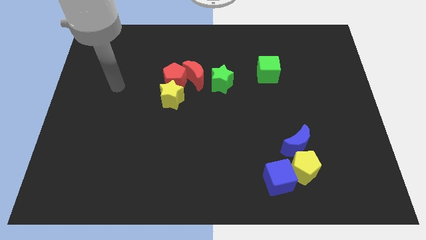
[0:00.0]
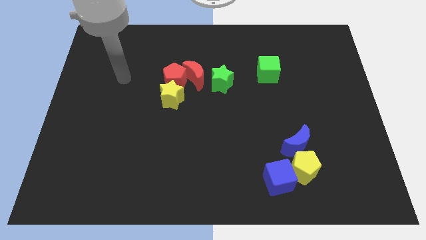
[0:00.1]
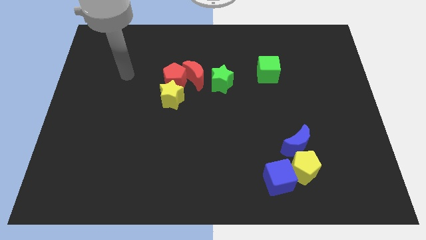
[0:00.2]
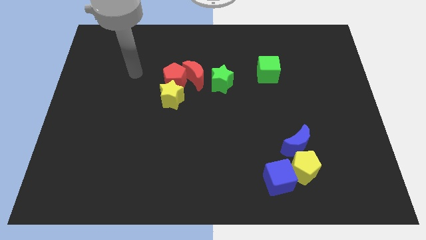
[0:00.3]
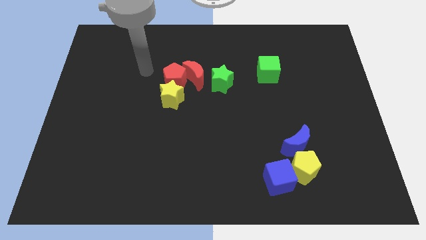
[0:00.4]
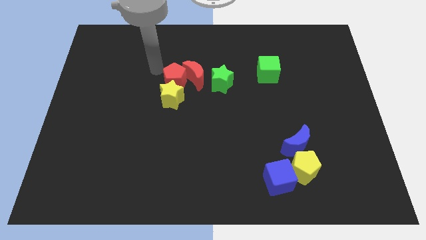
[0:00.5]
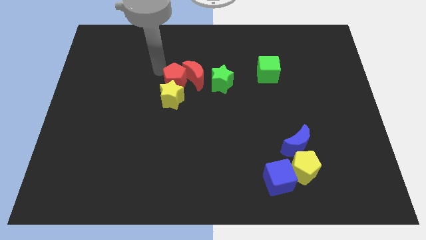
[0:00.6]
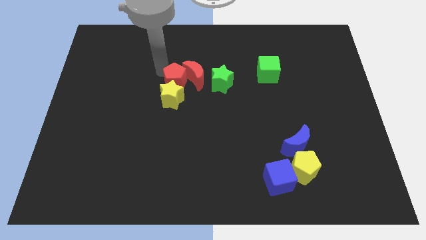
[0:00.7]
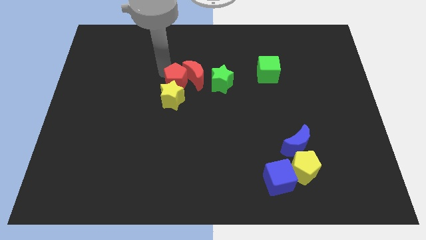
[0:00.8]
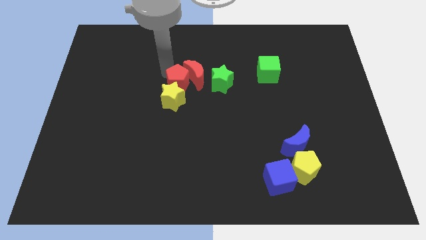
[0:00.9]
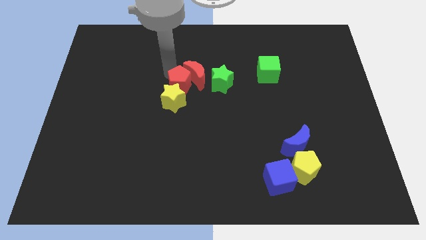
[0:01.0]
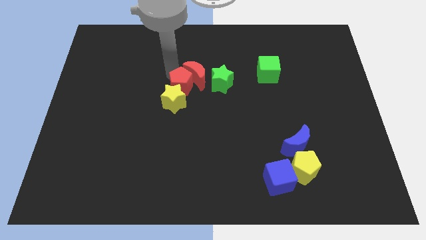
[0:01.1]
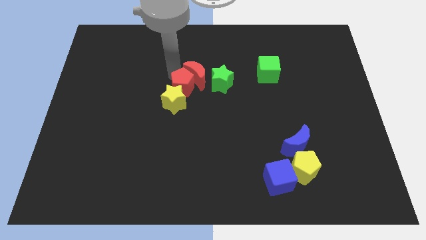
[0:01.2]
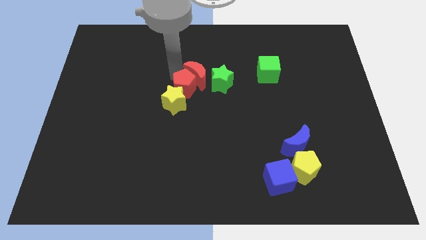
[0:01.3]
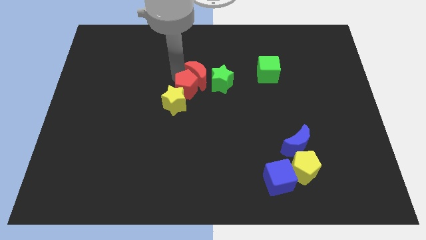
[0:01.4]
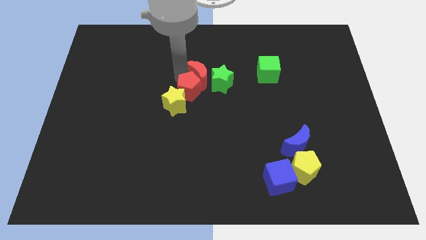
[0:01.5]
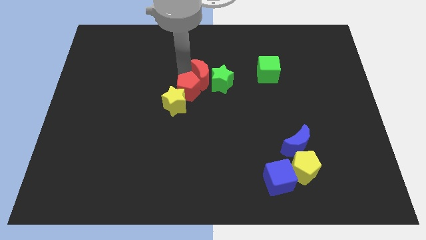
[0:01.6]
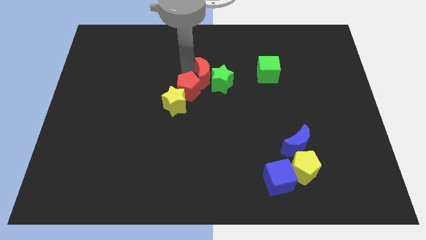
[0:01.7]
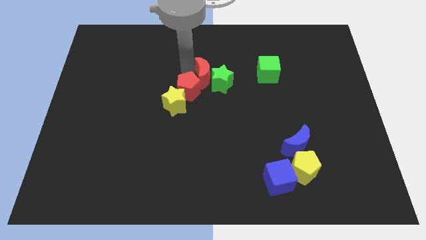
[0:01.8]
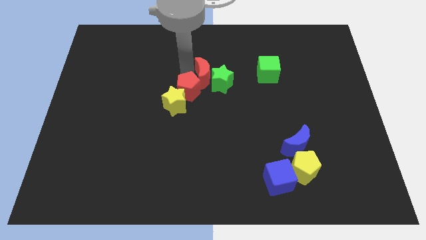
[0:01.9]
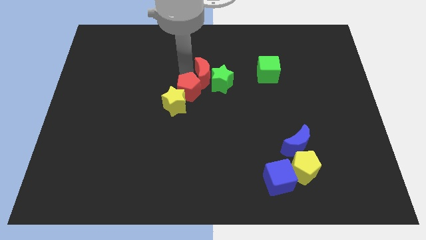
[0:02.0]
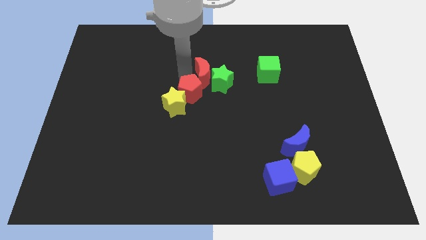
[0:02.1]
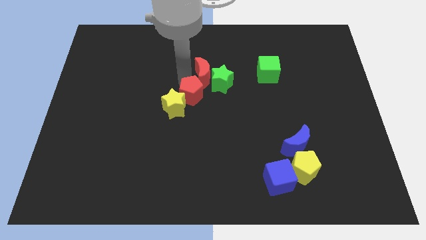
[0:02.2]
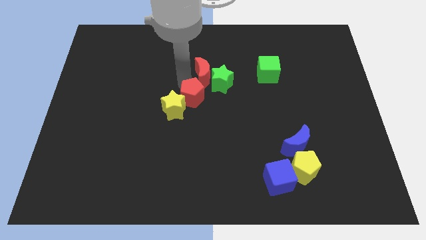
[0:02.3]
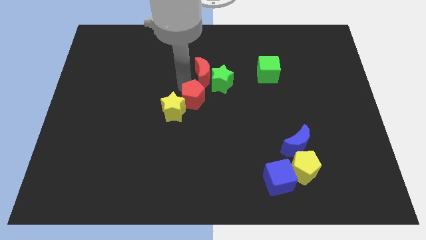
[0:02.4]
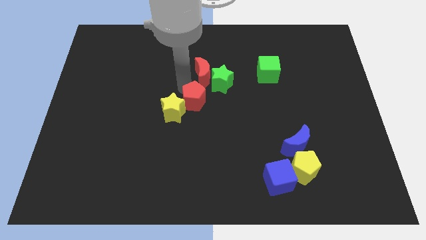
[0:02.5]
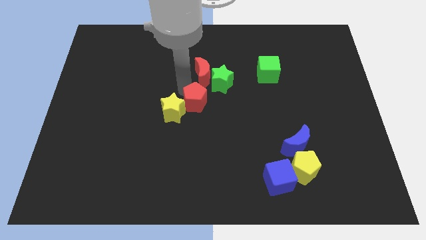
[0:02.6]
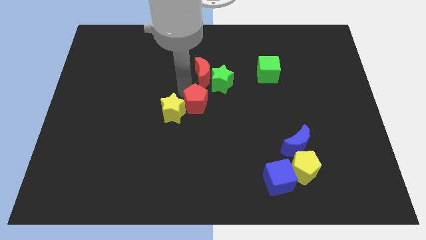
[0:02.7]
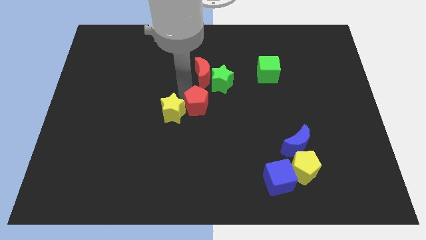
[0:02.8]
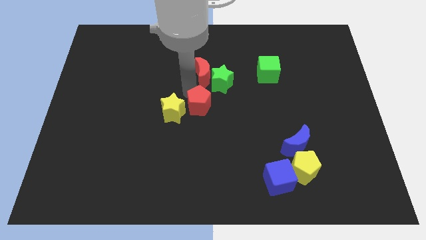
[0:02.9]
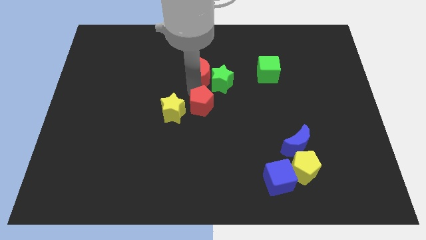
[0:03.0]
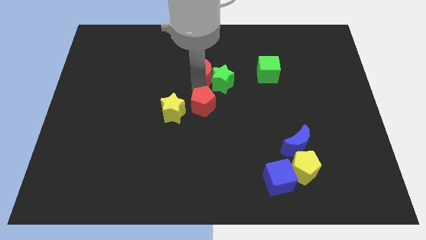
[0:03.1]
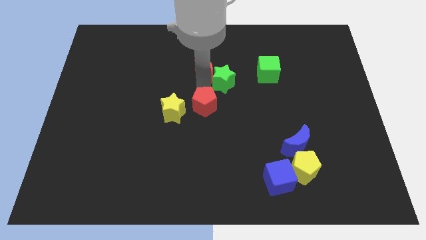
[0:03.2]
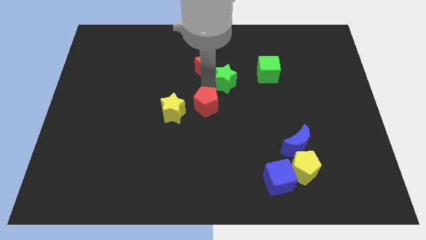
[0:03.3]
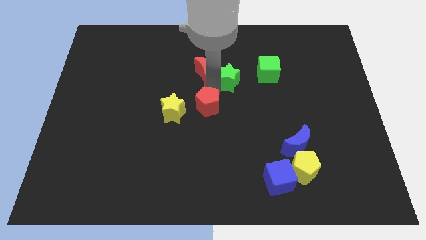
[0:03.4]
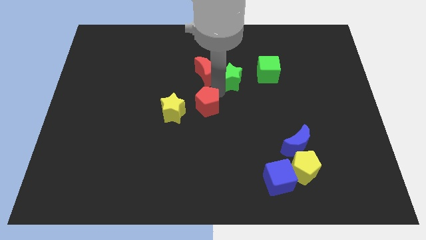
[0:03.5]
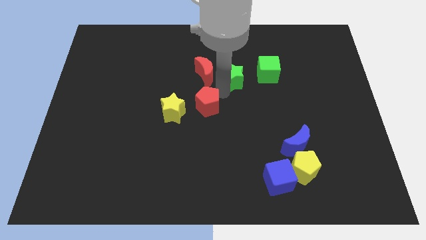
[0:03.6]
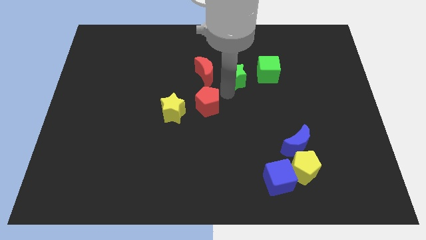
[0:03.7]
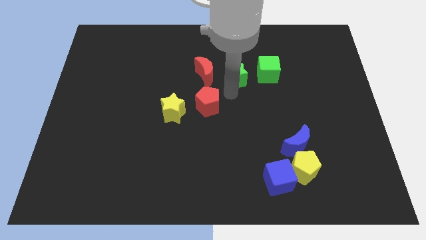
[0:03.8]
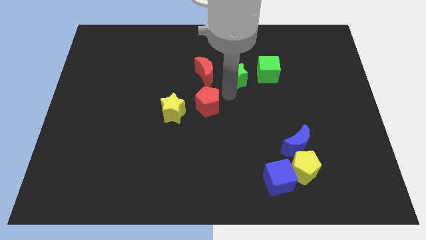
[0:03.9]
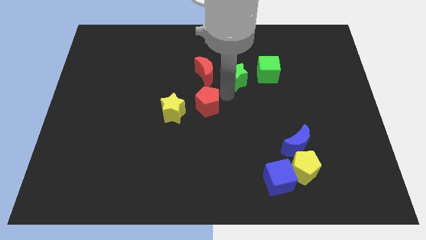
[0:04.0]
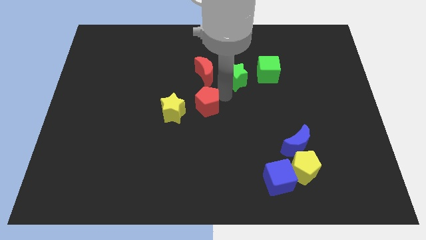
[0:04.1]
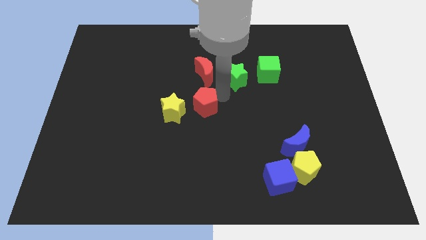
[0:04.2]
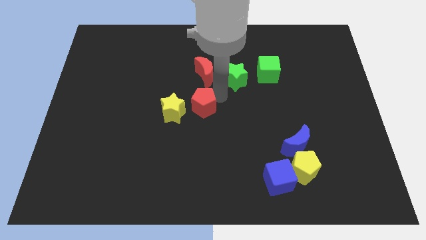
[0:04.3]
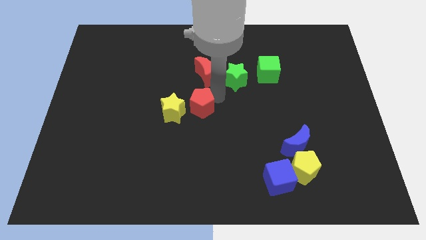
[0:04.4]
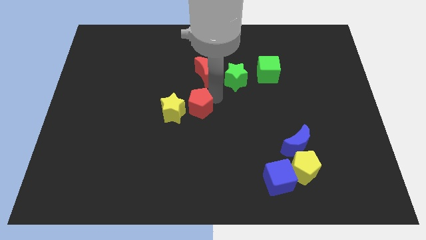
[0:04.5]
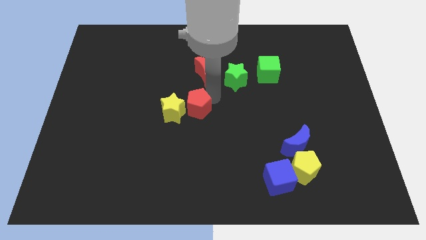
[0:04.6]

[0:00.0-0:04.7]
slide the red pentagon down a little bit

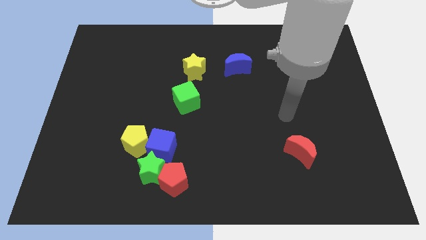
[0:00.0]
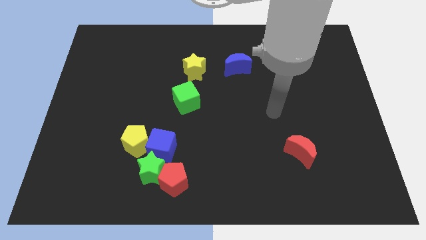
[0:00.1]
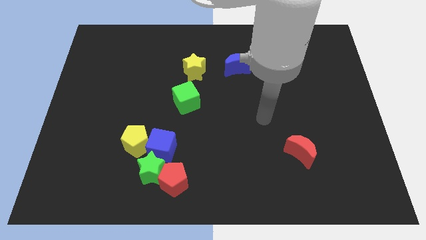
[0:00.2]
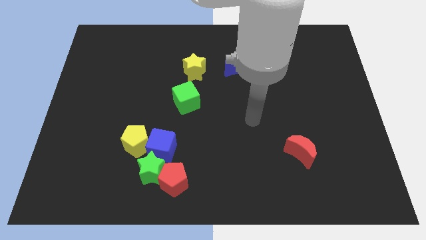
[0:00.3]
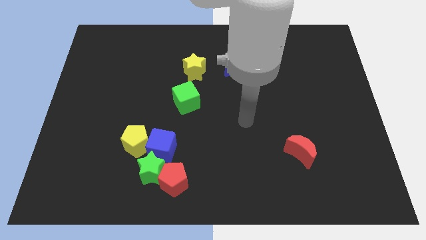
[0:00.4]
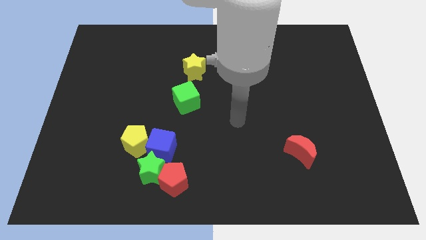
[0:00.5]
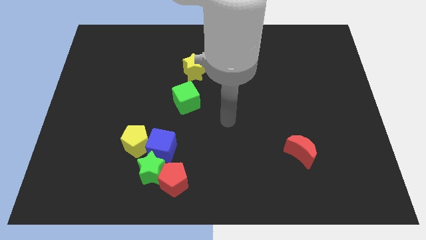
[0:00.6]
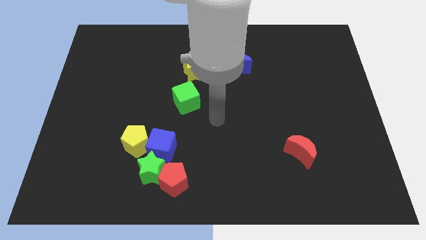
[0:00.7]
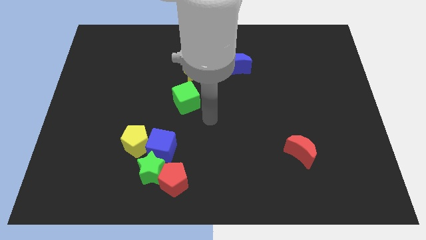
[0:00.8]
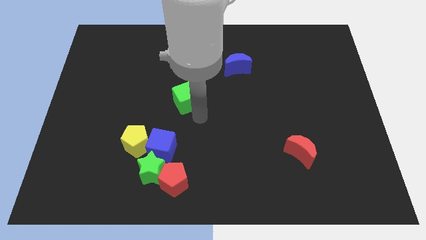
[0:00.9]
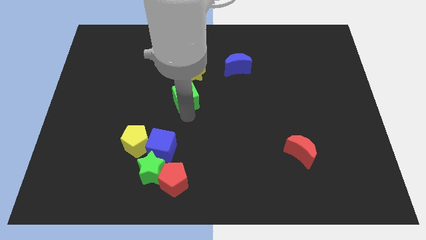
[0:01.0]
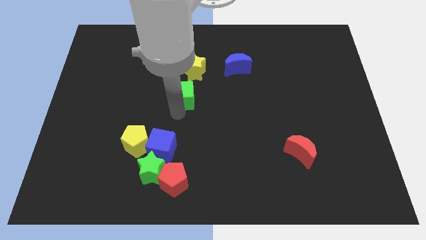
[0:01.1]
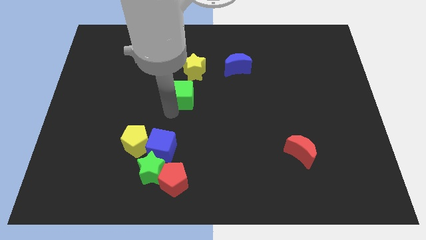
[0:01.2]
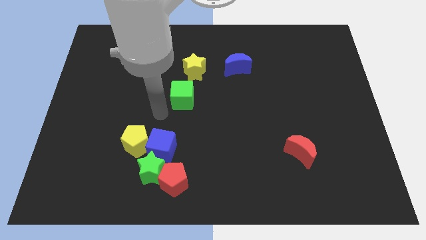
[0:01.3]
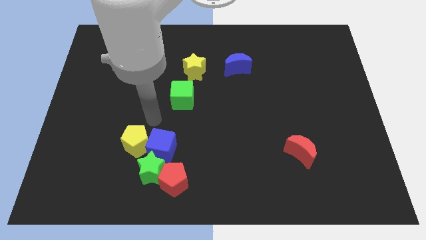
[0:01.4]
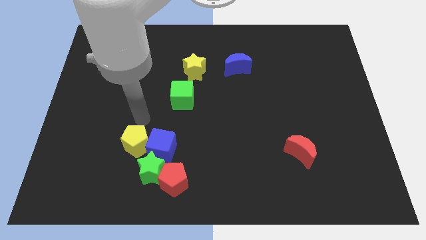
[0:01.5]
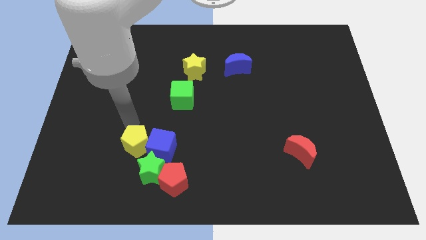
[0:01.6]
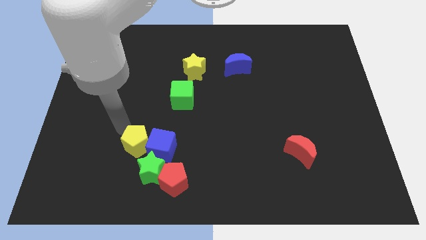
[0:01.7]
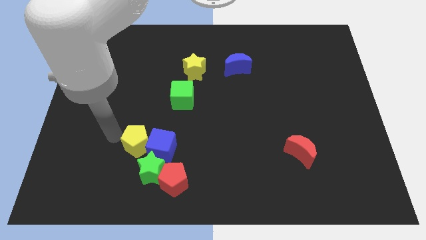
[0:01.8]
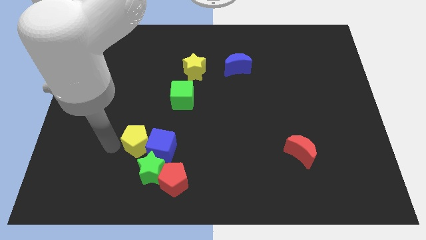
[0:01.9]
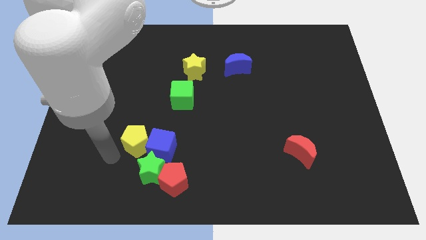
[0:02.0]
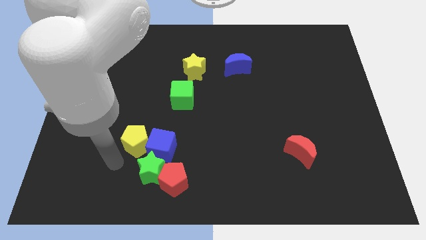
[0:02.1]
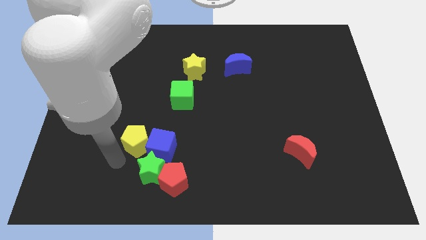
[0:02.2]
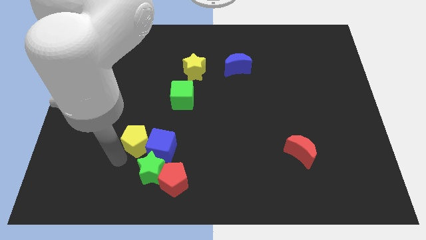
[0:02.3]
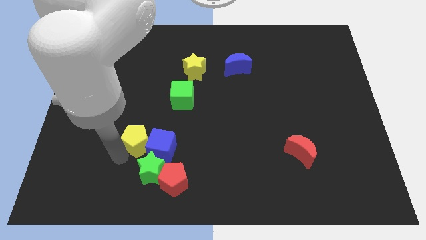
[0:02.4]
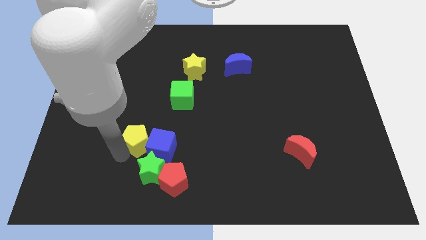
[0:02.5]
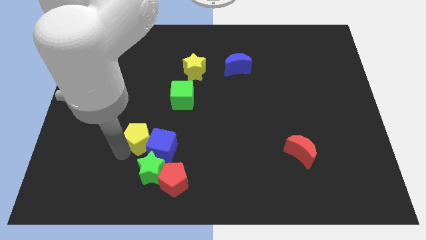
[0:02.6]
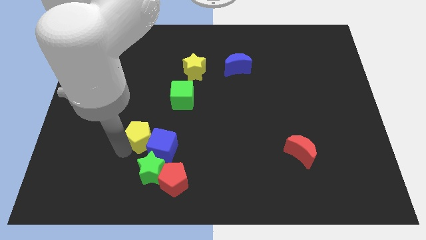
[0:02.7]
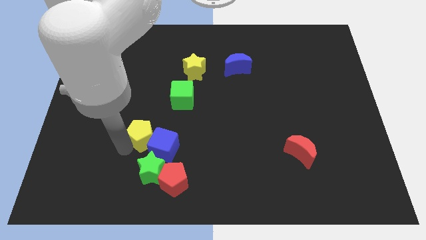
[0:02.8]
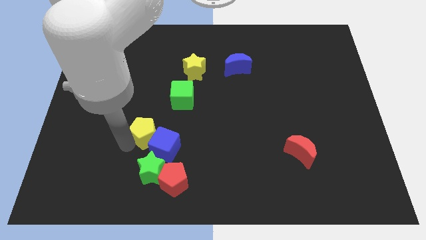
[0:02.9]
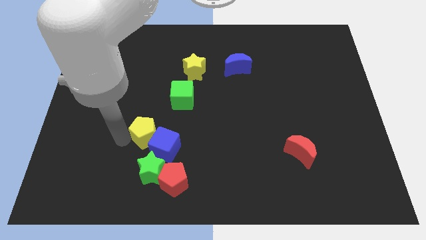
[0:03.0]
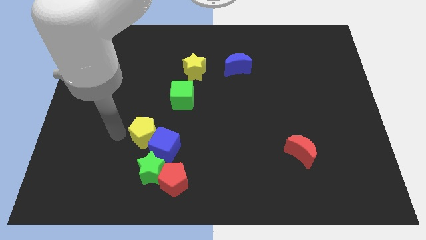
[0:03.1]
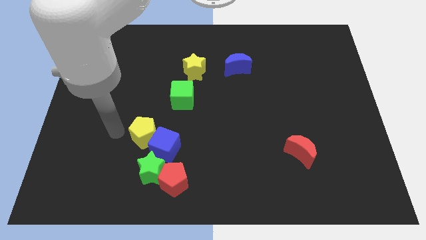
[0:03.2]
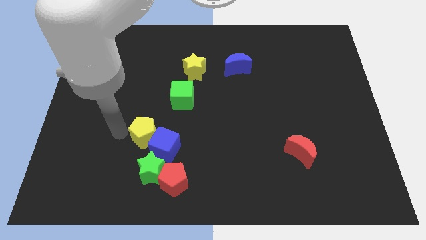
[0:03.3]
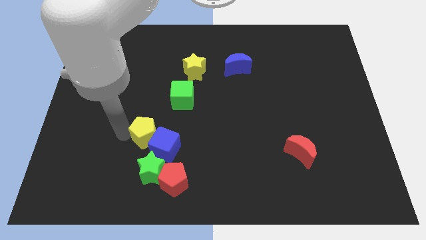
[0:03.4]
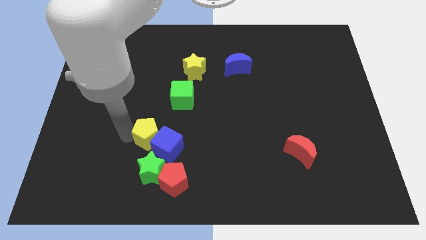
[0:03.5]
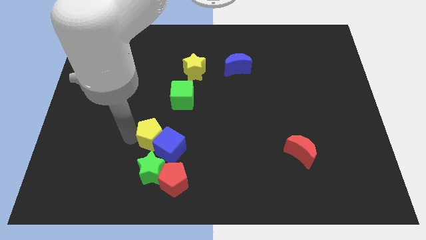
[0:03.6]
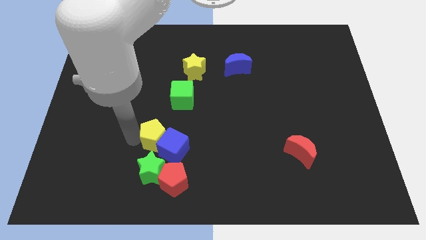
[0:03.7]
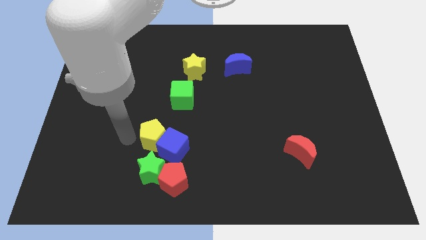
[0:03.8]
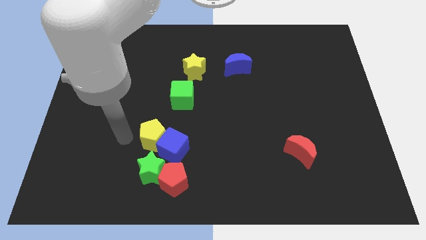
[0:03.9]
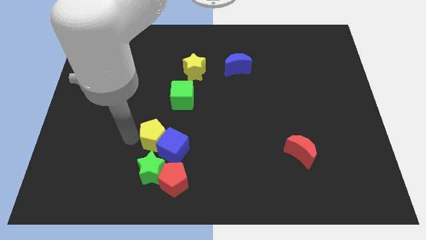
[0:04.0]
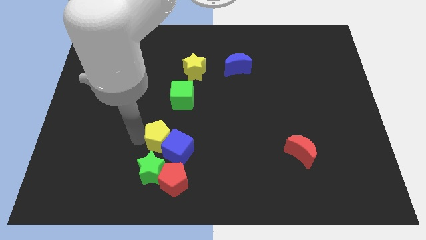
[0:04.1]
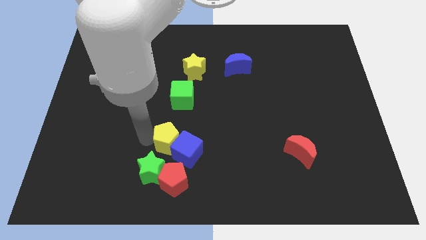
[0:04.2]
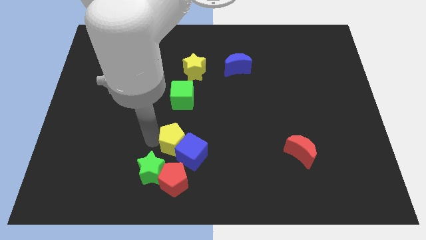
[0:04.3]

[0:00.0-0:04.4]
slide the yellow pentagon slightly right
